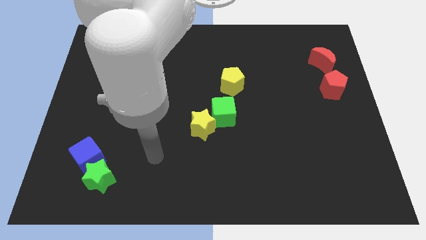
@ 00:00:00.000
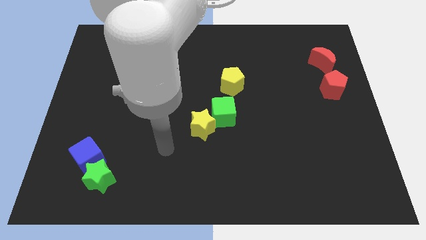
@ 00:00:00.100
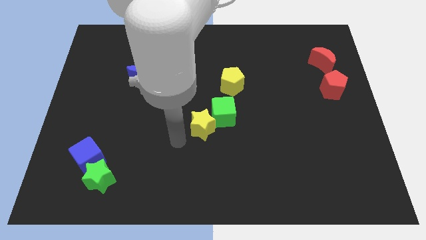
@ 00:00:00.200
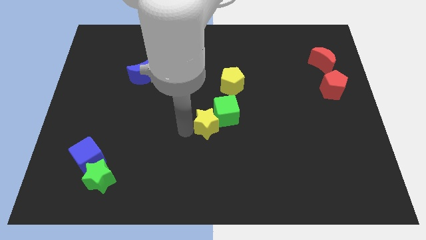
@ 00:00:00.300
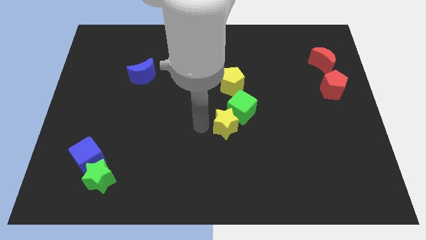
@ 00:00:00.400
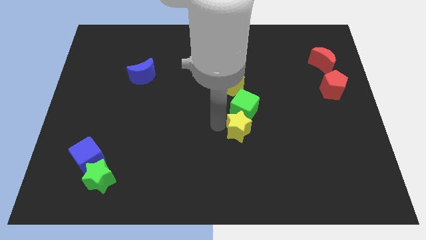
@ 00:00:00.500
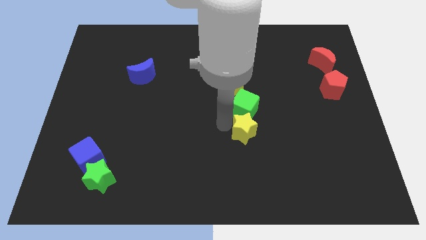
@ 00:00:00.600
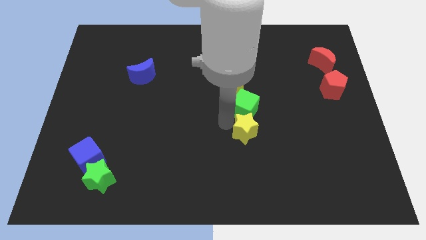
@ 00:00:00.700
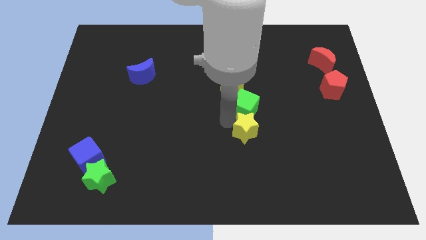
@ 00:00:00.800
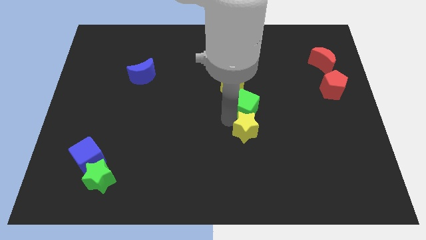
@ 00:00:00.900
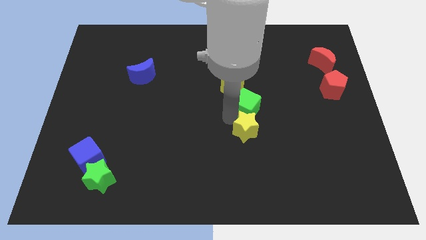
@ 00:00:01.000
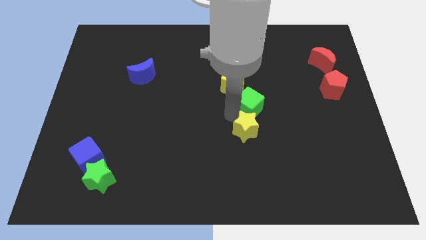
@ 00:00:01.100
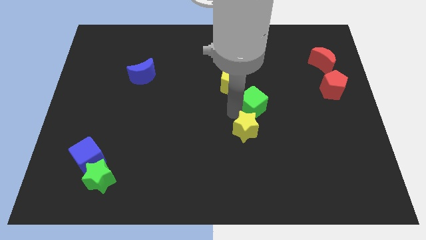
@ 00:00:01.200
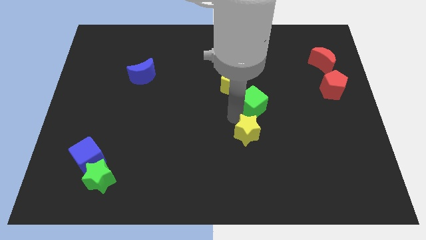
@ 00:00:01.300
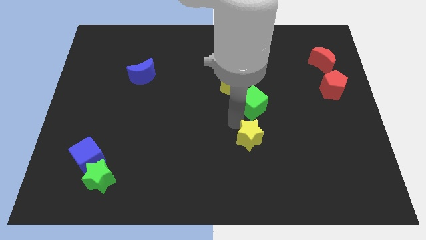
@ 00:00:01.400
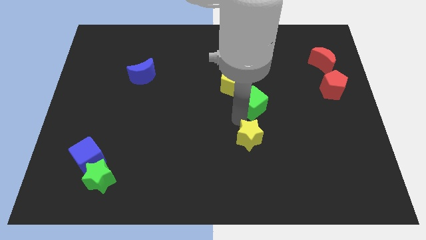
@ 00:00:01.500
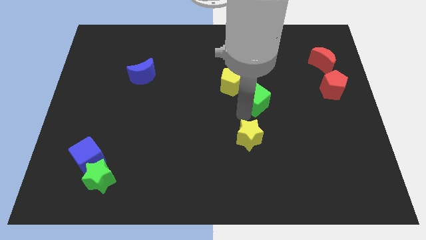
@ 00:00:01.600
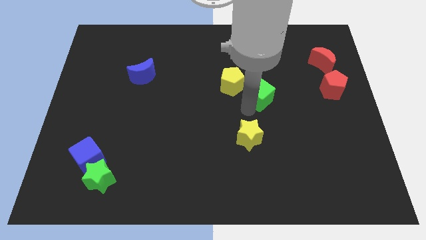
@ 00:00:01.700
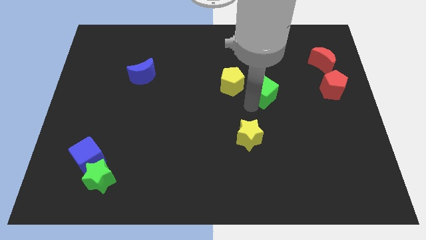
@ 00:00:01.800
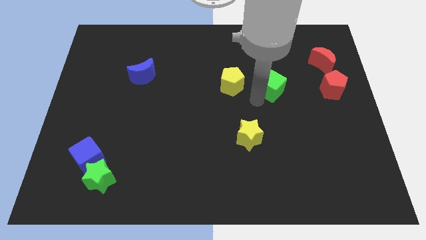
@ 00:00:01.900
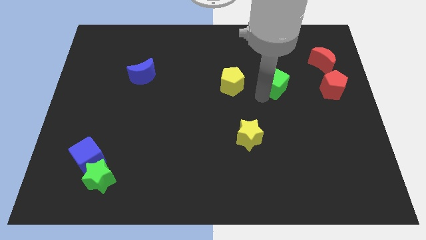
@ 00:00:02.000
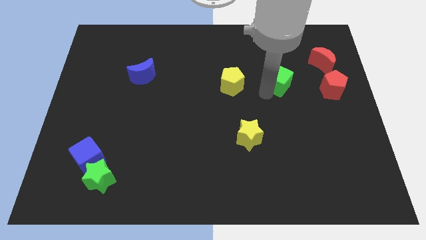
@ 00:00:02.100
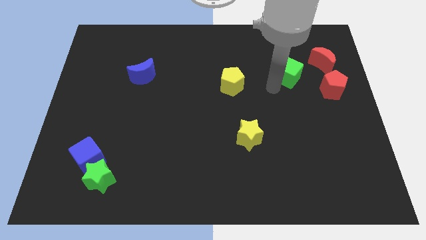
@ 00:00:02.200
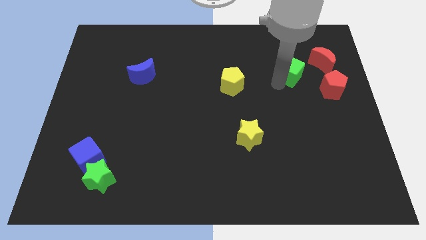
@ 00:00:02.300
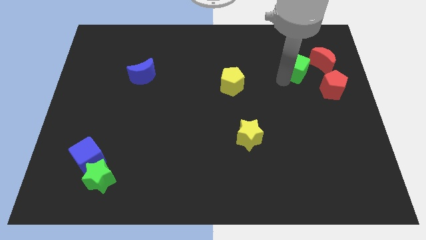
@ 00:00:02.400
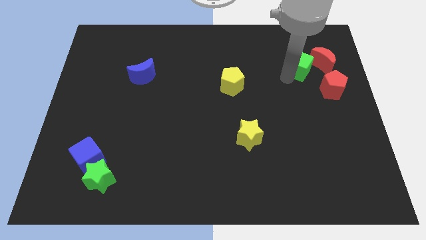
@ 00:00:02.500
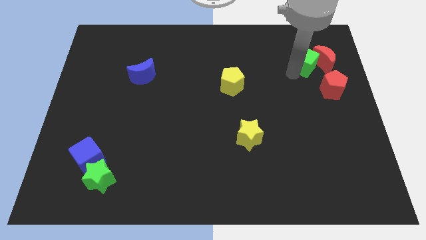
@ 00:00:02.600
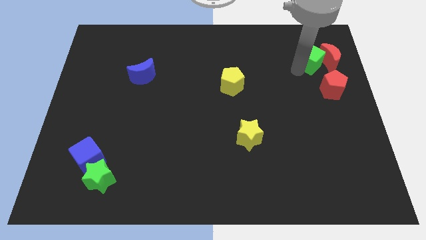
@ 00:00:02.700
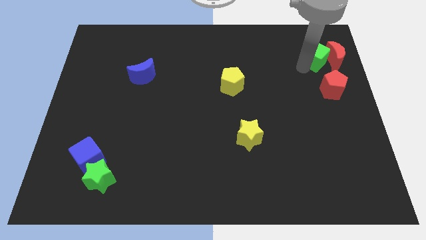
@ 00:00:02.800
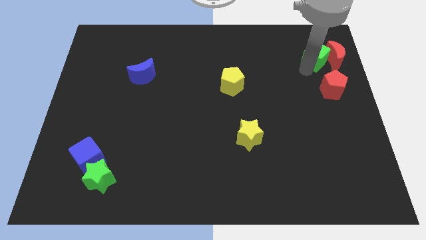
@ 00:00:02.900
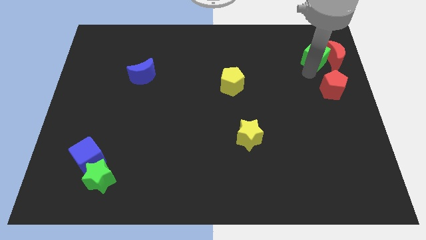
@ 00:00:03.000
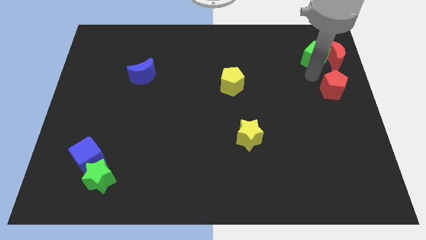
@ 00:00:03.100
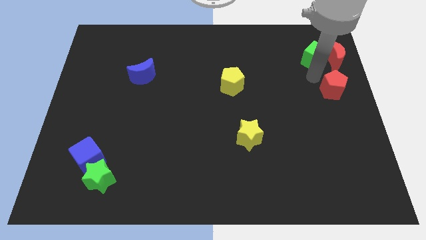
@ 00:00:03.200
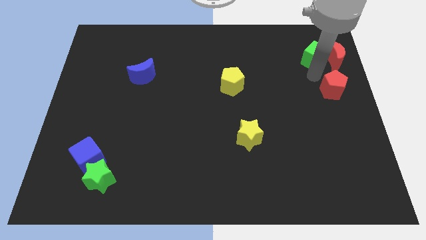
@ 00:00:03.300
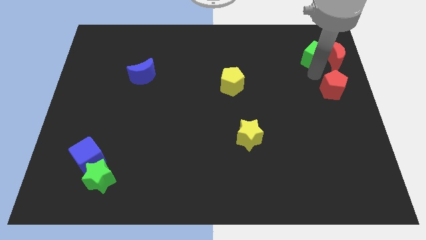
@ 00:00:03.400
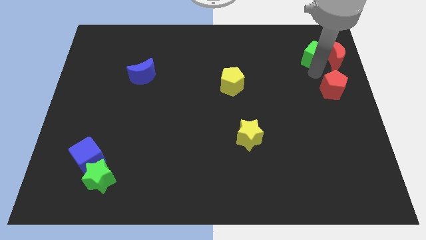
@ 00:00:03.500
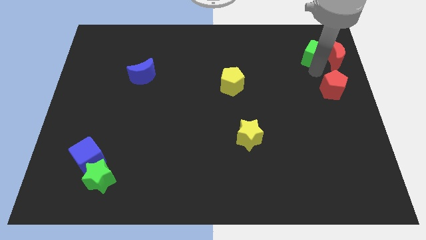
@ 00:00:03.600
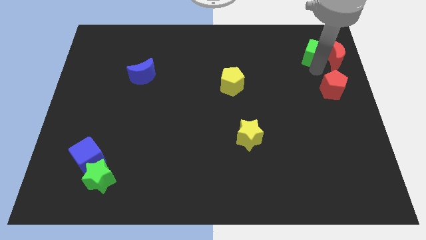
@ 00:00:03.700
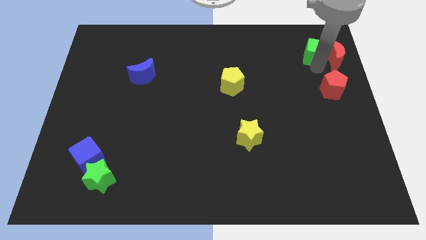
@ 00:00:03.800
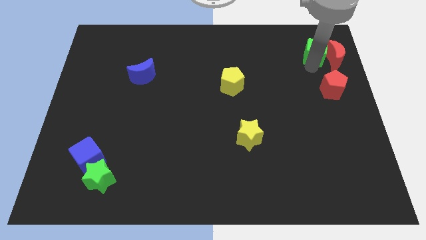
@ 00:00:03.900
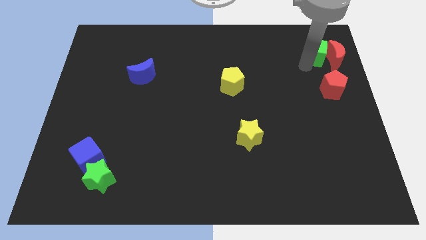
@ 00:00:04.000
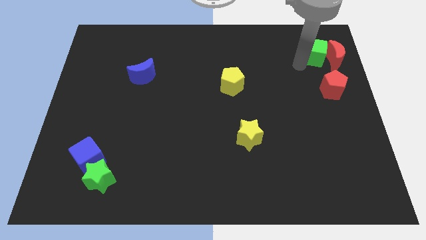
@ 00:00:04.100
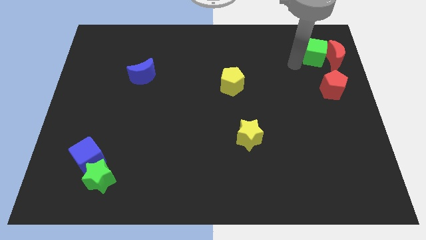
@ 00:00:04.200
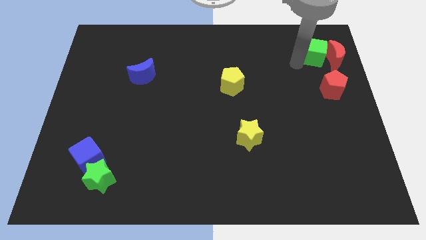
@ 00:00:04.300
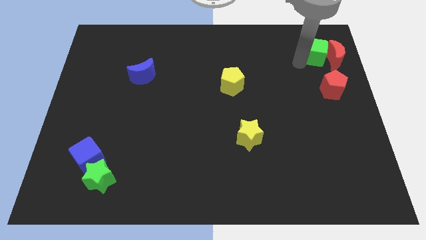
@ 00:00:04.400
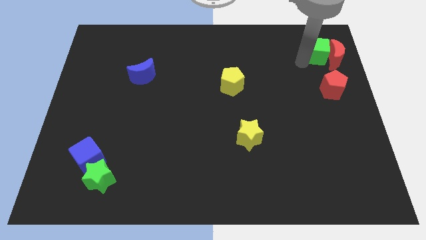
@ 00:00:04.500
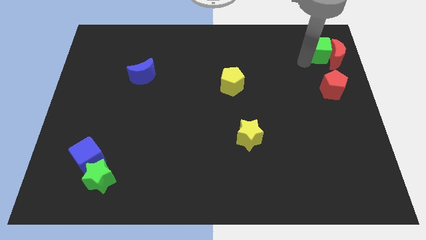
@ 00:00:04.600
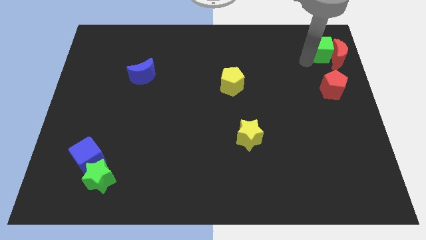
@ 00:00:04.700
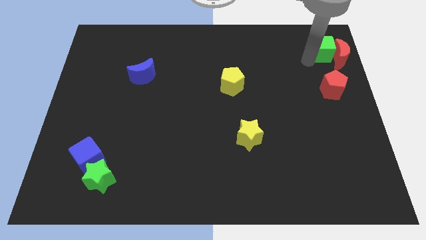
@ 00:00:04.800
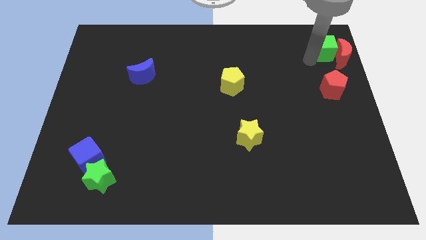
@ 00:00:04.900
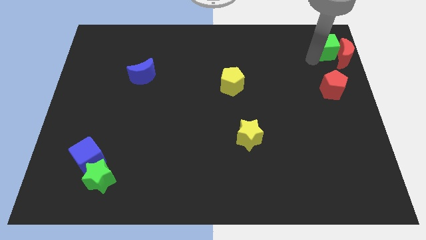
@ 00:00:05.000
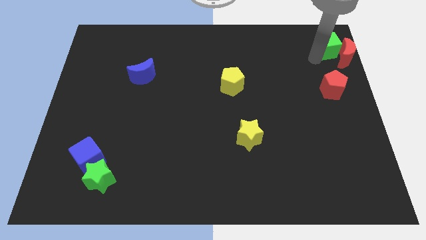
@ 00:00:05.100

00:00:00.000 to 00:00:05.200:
slide the green cube to the top right of the board

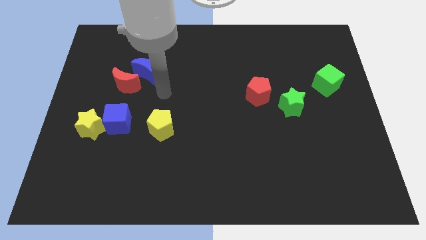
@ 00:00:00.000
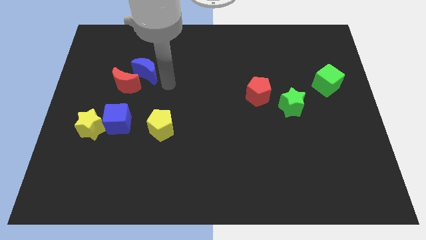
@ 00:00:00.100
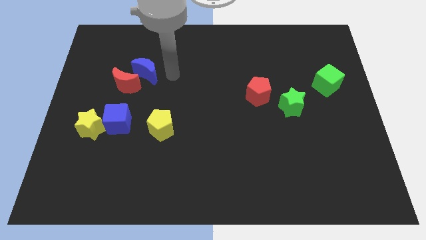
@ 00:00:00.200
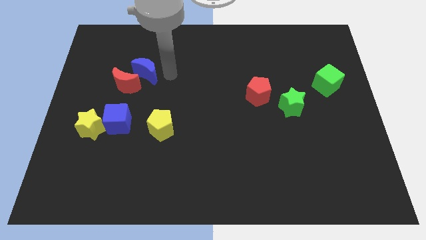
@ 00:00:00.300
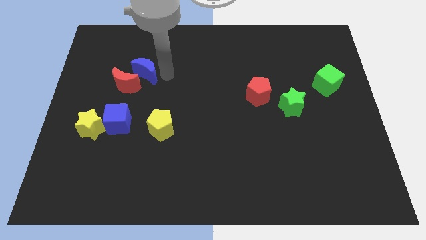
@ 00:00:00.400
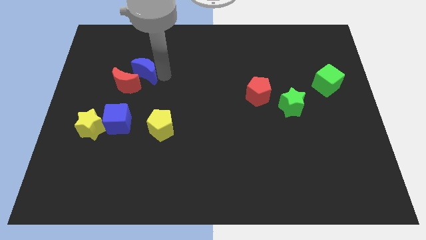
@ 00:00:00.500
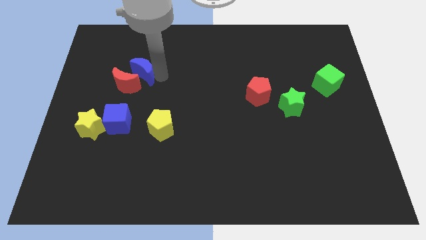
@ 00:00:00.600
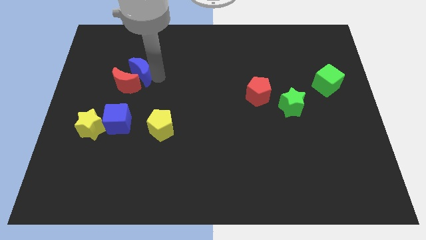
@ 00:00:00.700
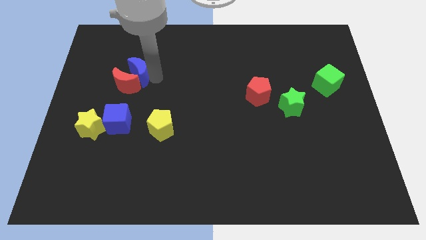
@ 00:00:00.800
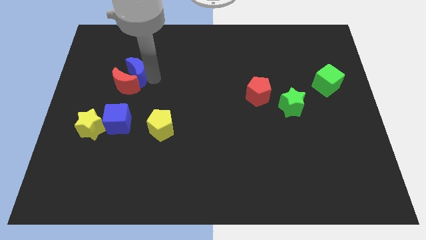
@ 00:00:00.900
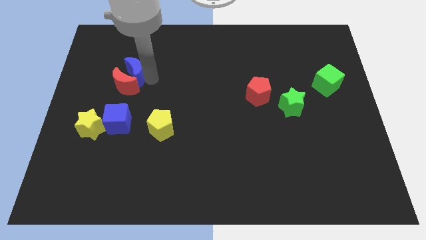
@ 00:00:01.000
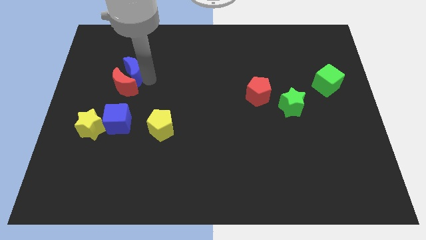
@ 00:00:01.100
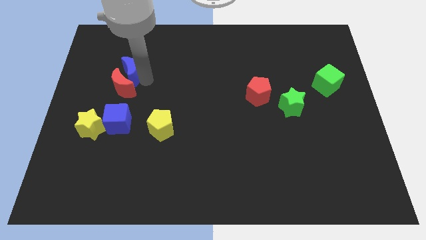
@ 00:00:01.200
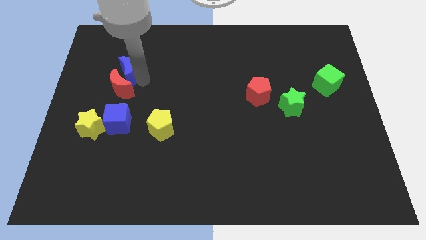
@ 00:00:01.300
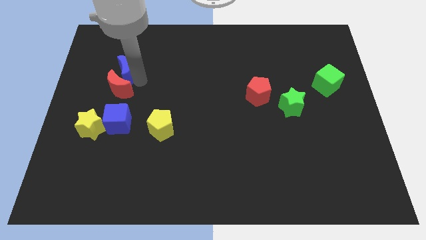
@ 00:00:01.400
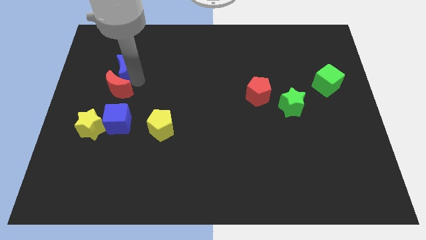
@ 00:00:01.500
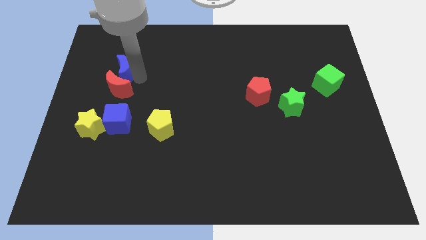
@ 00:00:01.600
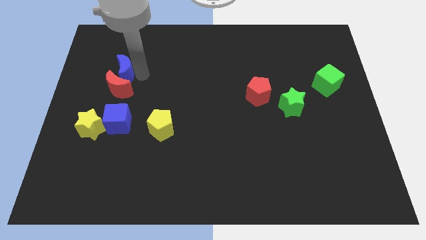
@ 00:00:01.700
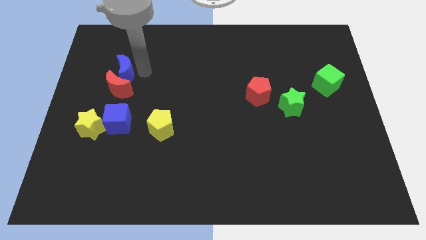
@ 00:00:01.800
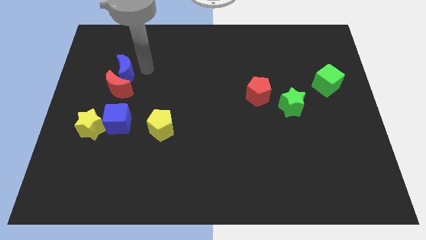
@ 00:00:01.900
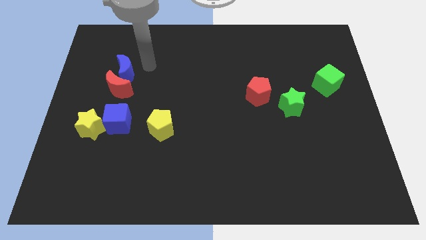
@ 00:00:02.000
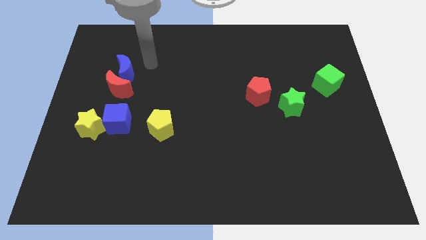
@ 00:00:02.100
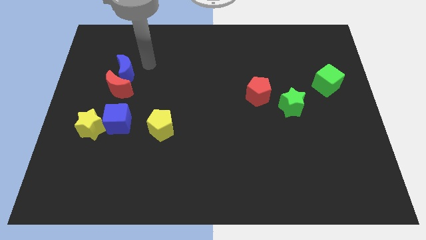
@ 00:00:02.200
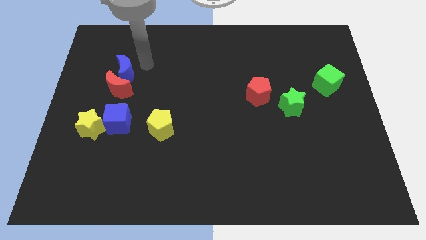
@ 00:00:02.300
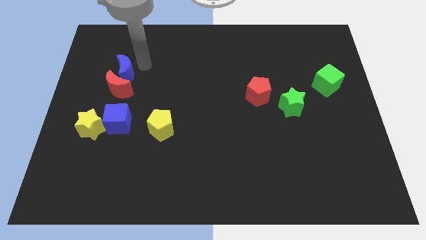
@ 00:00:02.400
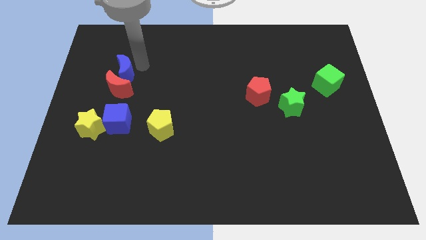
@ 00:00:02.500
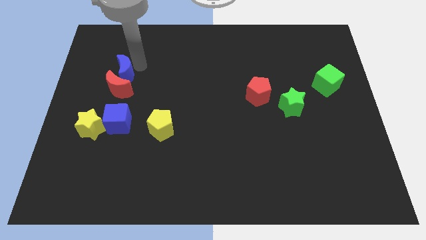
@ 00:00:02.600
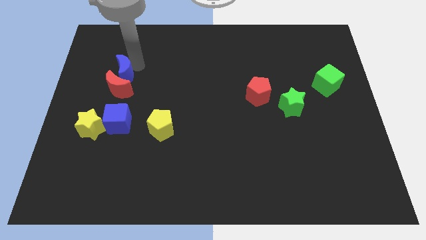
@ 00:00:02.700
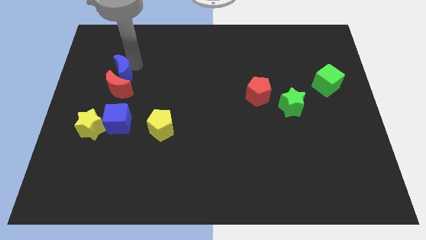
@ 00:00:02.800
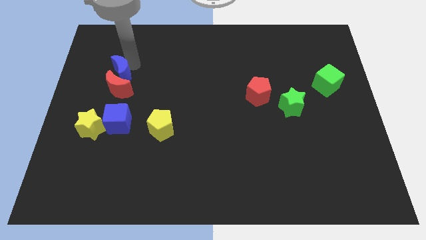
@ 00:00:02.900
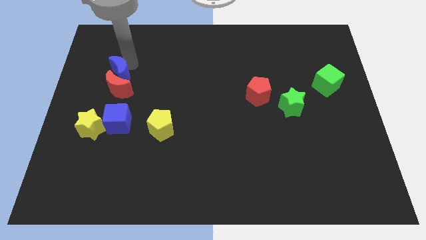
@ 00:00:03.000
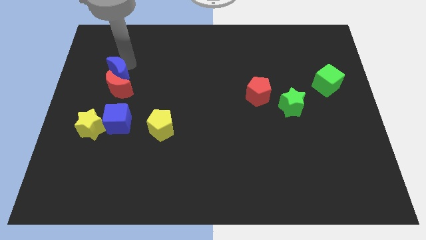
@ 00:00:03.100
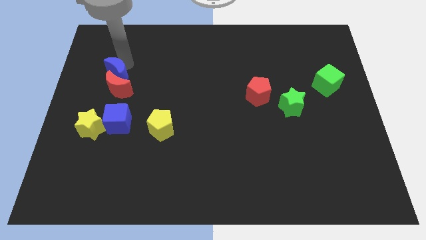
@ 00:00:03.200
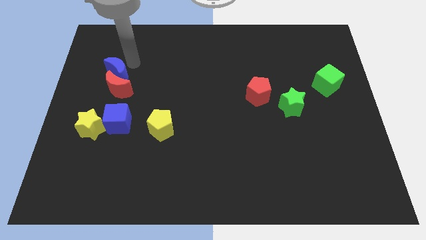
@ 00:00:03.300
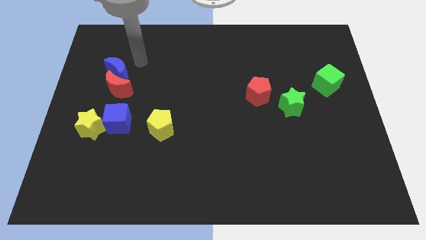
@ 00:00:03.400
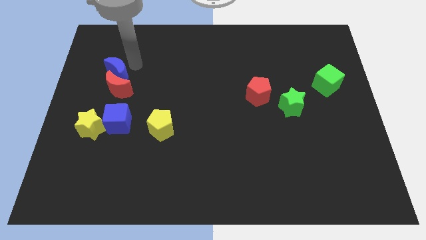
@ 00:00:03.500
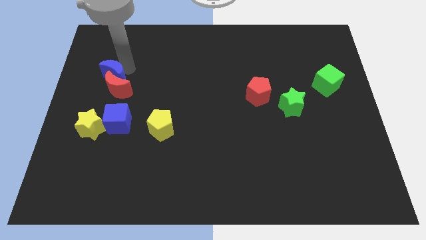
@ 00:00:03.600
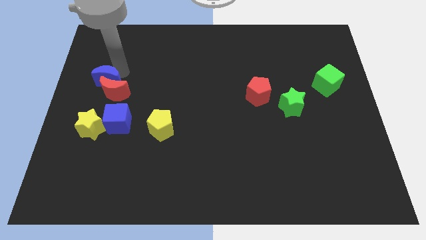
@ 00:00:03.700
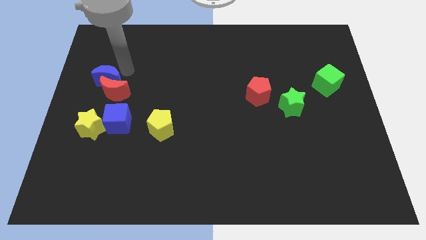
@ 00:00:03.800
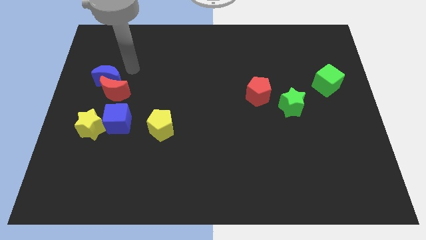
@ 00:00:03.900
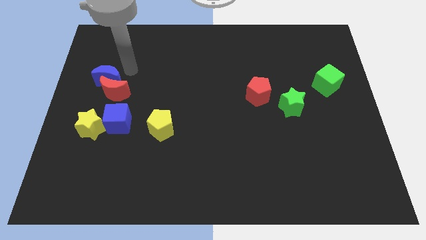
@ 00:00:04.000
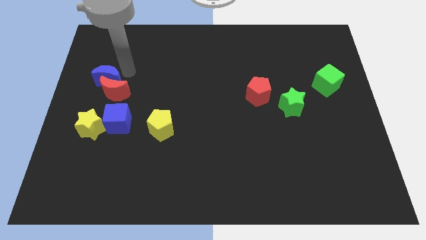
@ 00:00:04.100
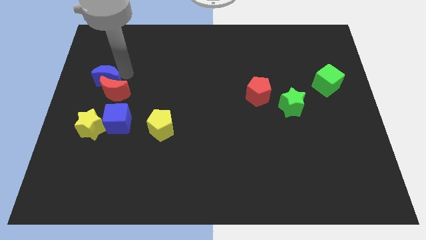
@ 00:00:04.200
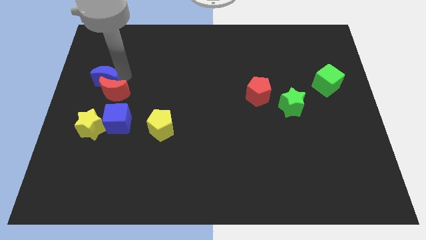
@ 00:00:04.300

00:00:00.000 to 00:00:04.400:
move the blue moon to the center left
